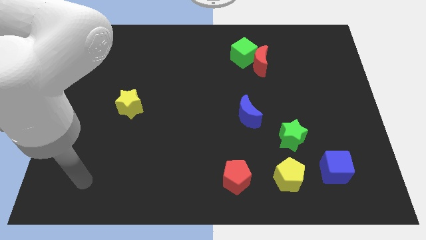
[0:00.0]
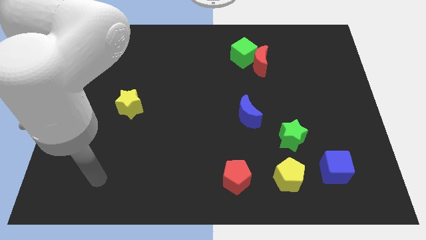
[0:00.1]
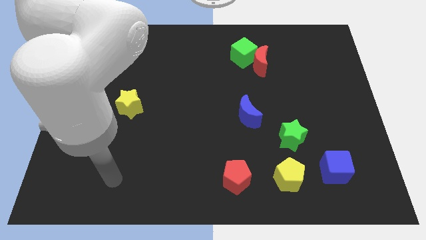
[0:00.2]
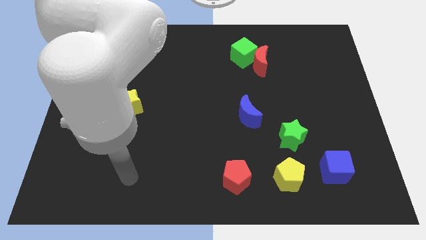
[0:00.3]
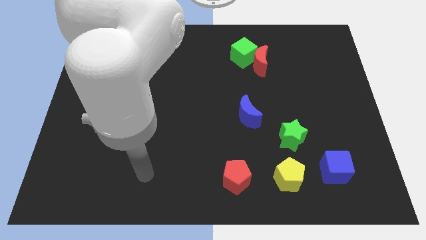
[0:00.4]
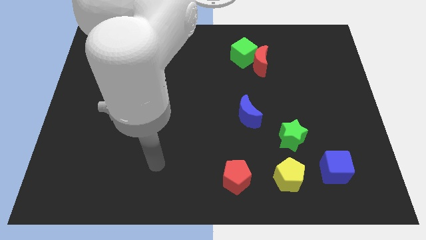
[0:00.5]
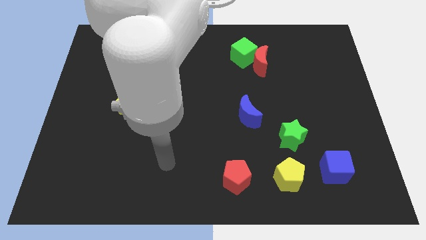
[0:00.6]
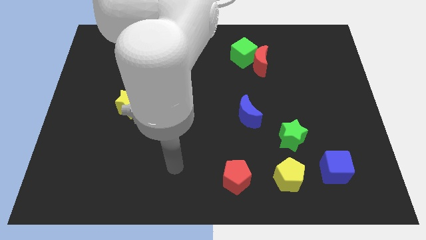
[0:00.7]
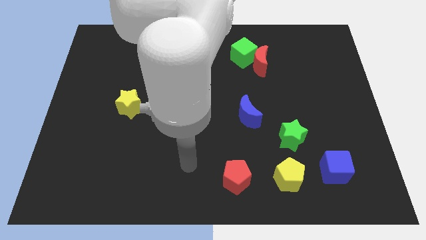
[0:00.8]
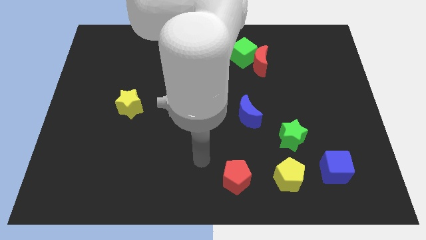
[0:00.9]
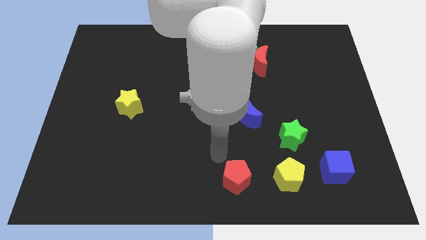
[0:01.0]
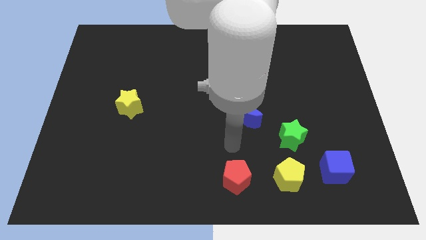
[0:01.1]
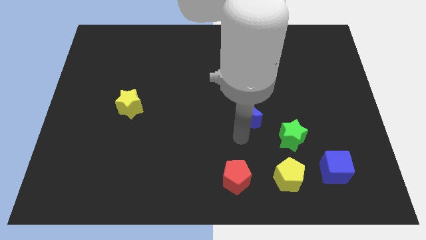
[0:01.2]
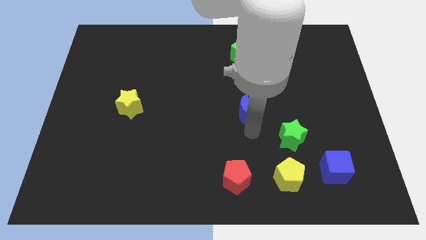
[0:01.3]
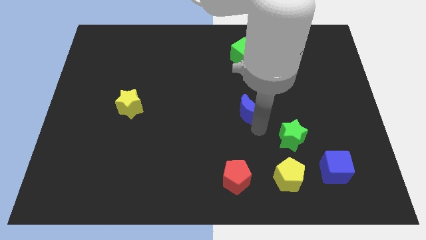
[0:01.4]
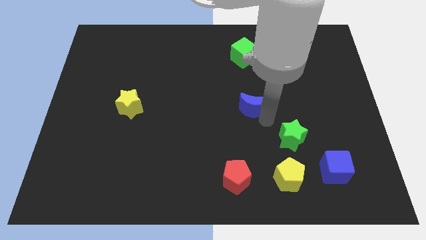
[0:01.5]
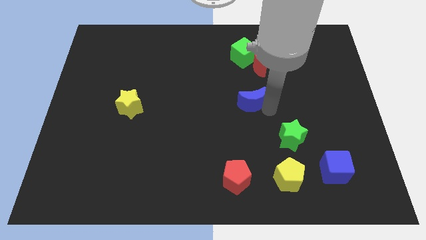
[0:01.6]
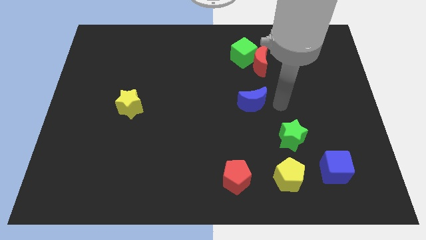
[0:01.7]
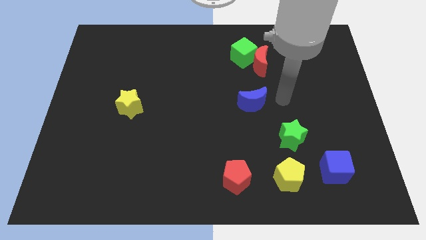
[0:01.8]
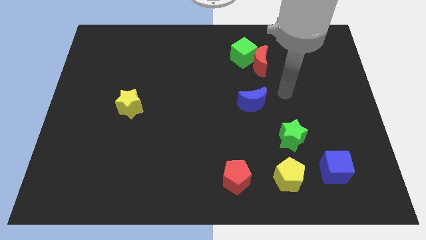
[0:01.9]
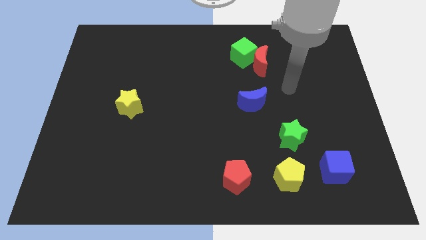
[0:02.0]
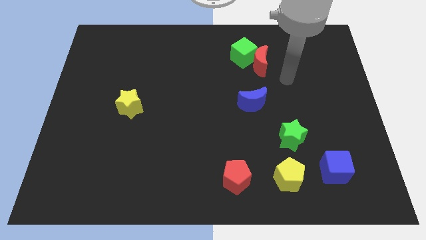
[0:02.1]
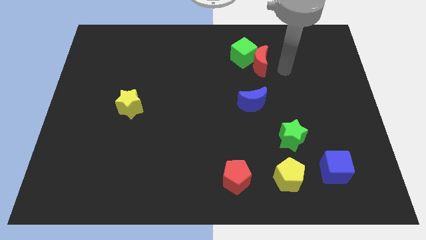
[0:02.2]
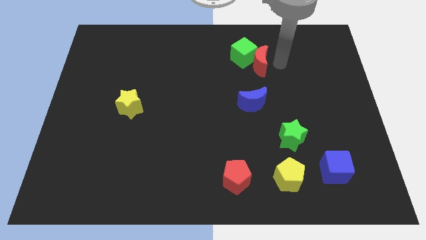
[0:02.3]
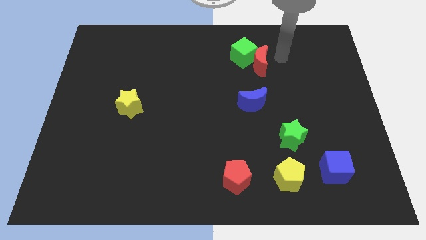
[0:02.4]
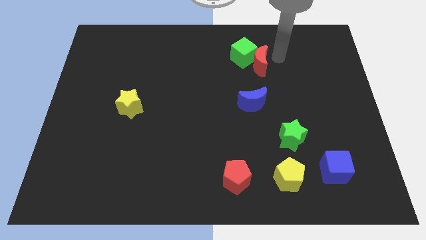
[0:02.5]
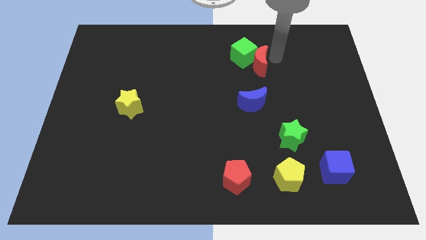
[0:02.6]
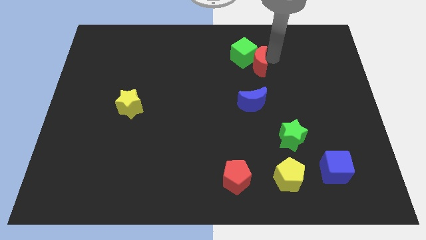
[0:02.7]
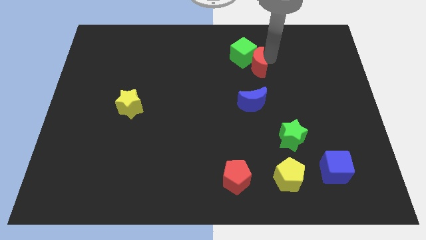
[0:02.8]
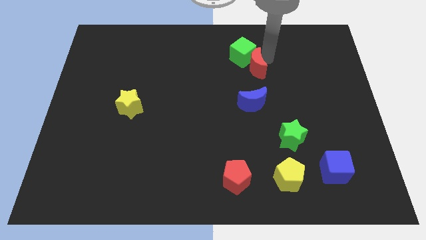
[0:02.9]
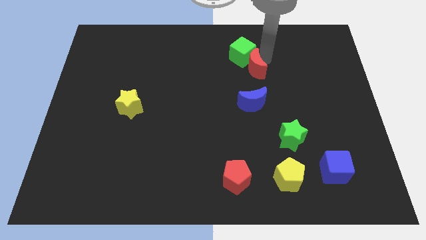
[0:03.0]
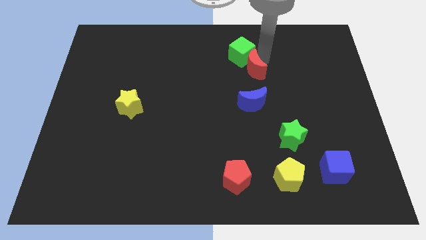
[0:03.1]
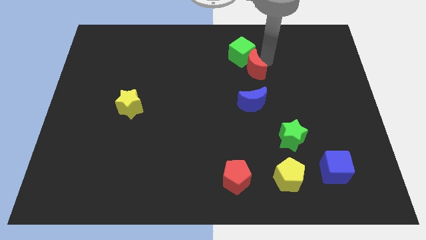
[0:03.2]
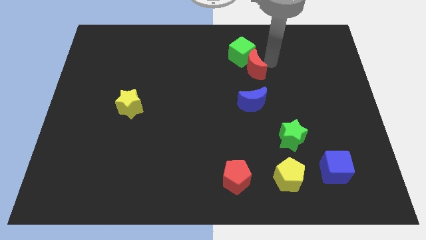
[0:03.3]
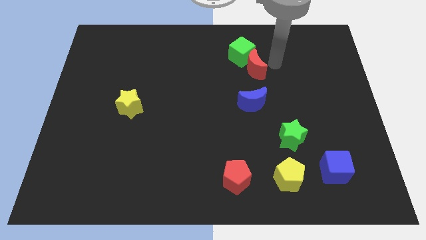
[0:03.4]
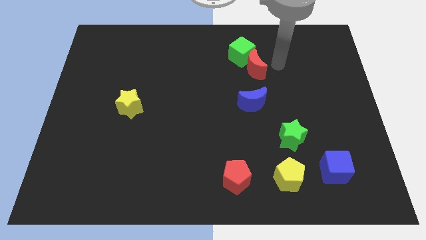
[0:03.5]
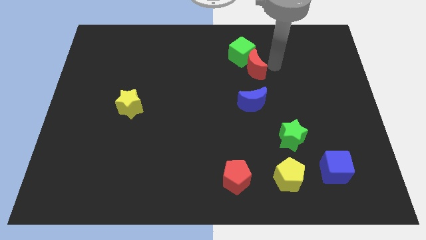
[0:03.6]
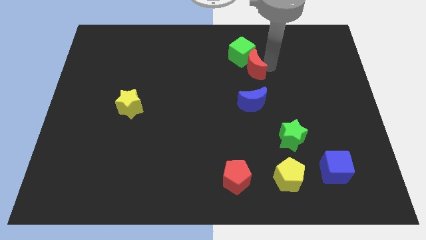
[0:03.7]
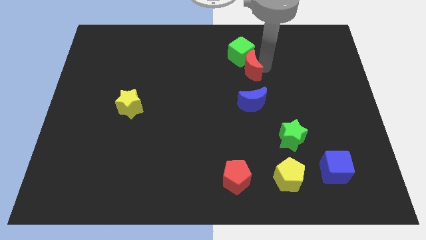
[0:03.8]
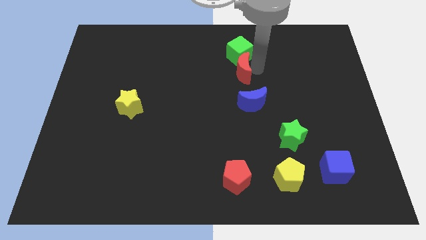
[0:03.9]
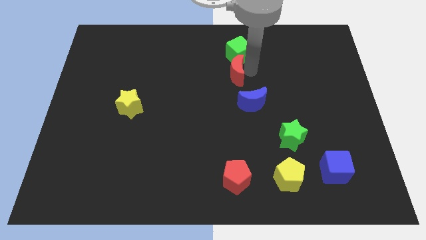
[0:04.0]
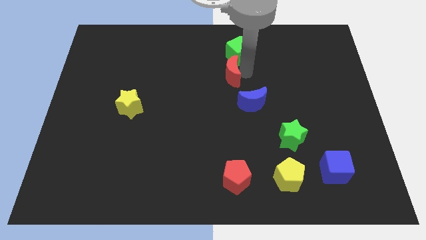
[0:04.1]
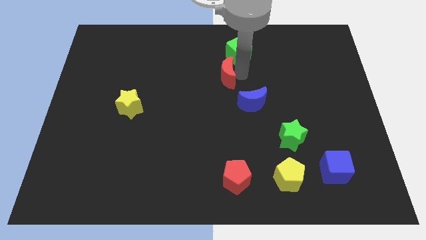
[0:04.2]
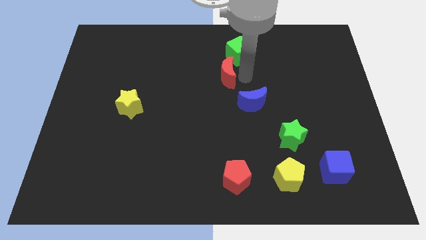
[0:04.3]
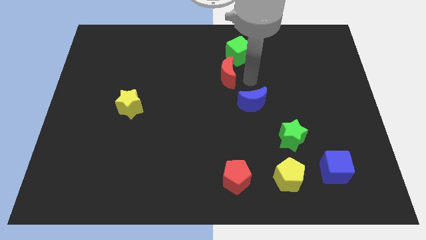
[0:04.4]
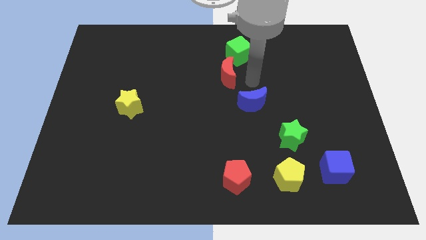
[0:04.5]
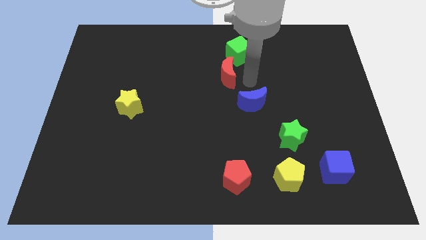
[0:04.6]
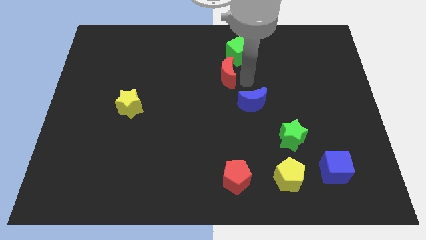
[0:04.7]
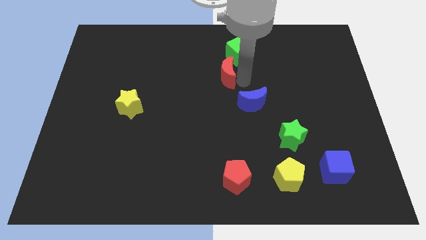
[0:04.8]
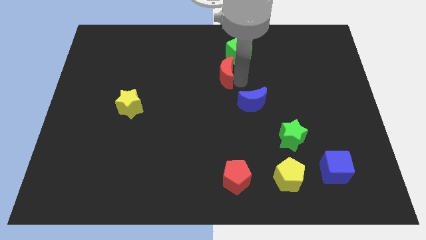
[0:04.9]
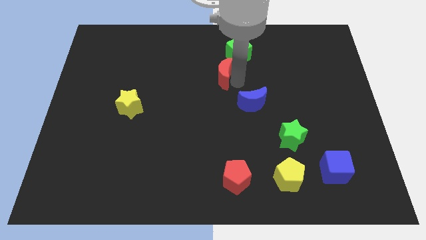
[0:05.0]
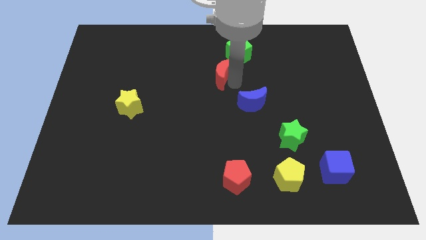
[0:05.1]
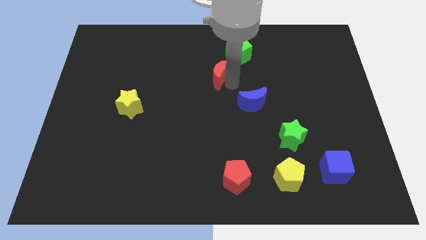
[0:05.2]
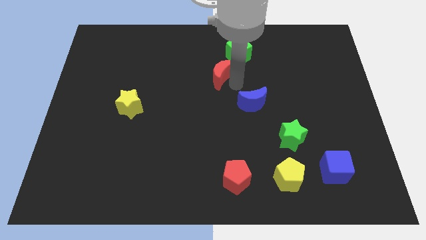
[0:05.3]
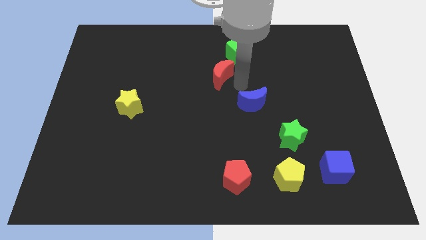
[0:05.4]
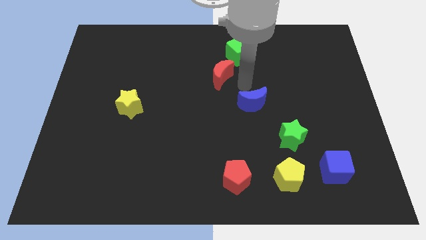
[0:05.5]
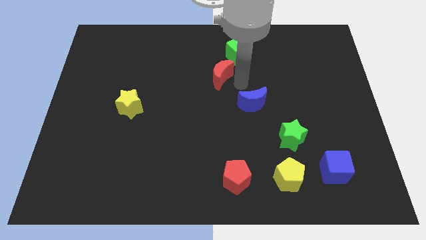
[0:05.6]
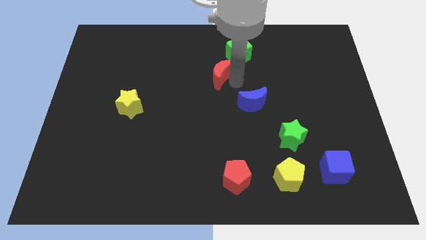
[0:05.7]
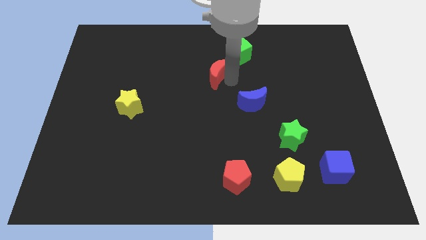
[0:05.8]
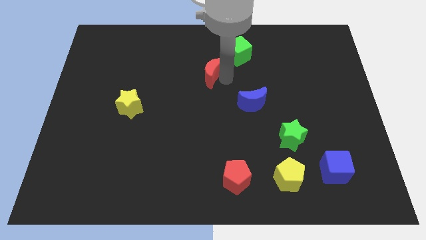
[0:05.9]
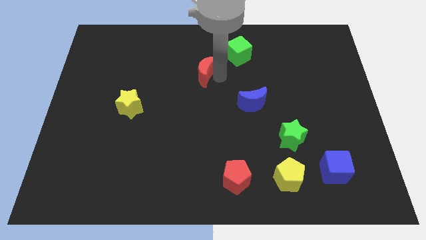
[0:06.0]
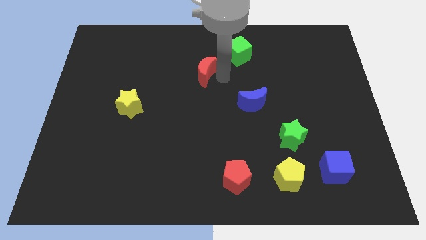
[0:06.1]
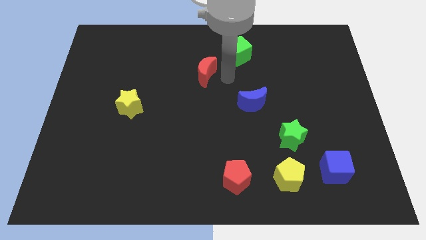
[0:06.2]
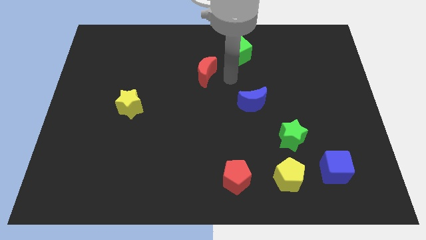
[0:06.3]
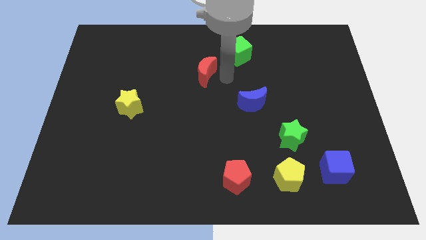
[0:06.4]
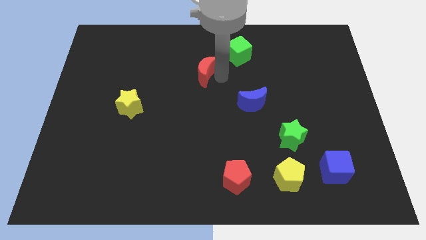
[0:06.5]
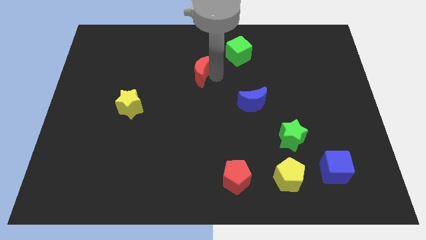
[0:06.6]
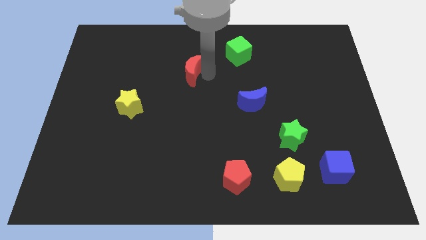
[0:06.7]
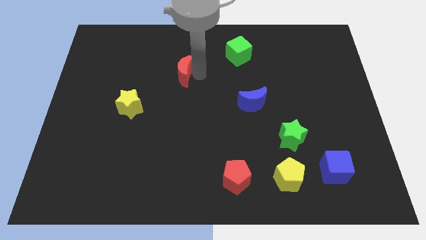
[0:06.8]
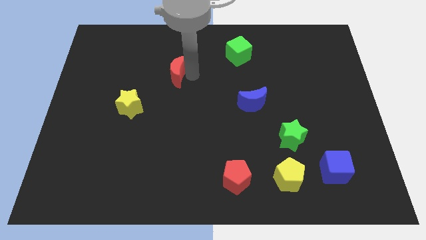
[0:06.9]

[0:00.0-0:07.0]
push the red moon left

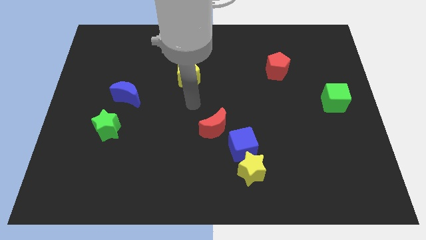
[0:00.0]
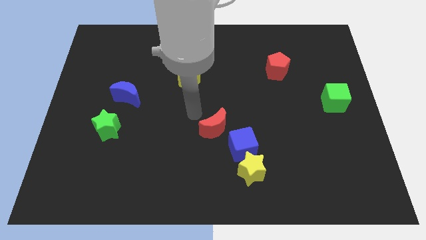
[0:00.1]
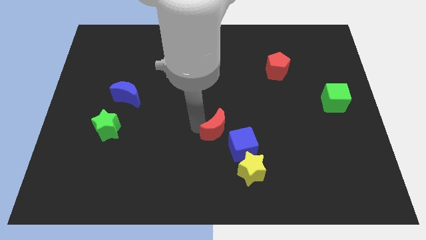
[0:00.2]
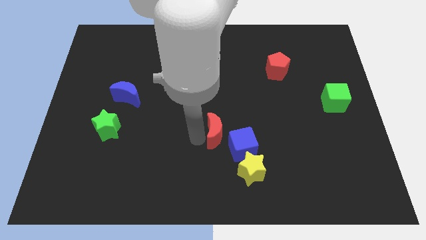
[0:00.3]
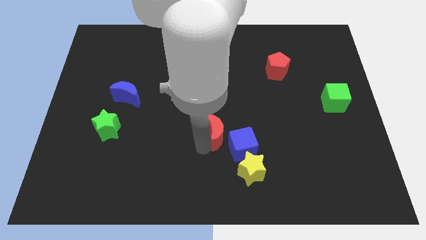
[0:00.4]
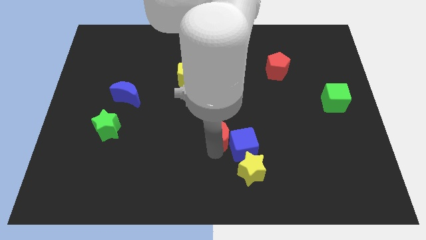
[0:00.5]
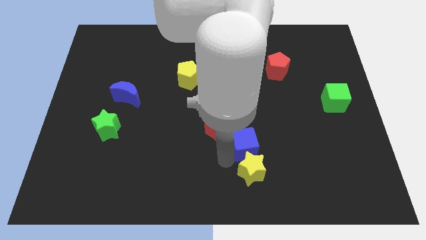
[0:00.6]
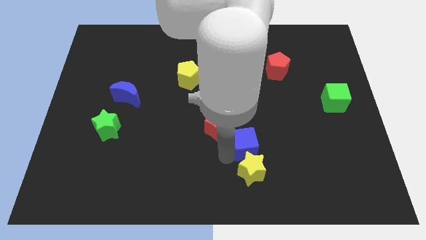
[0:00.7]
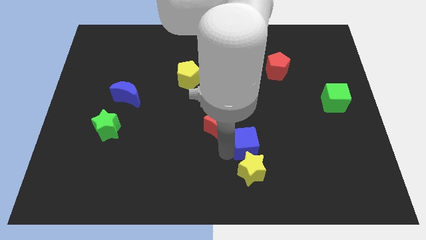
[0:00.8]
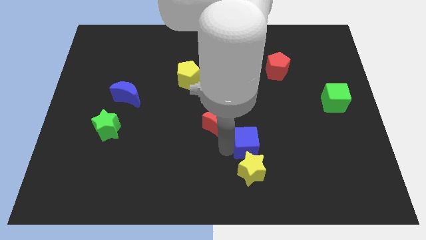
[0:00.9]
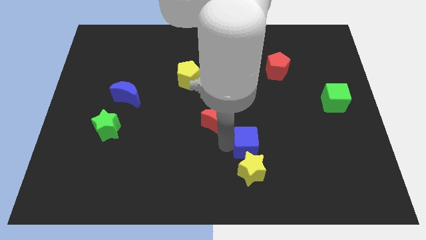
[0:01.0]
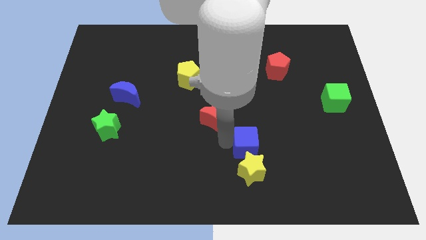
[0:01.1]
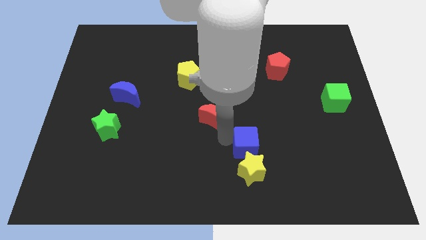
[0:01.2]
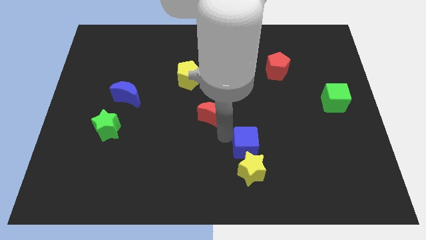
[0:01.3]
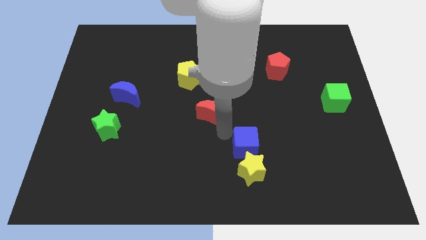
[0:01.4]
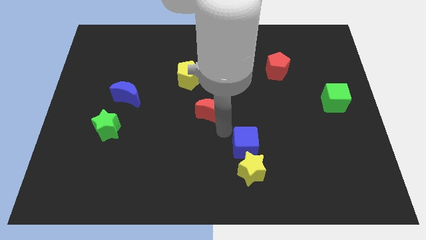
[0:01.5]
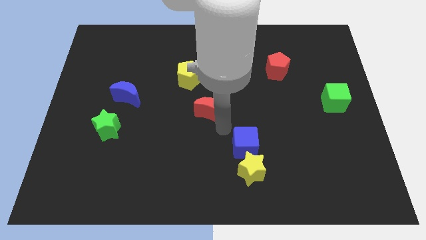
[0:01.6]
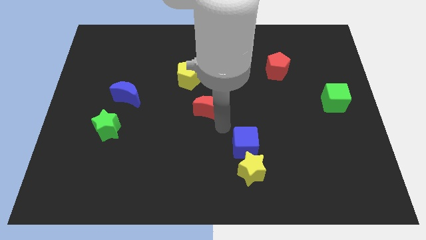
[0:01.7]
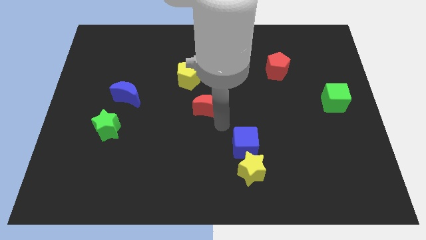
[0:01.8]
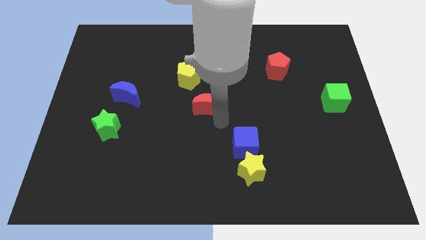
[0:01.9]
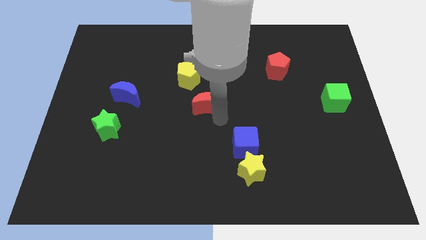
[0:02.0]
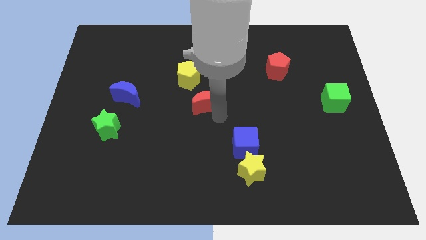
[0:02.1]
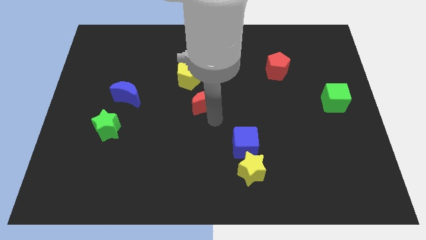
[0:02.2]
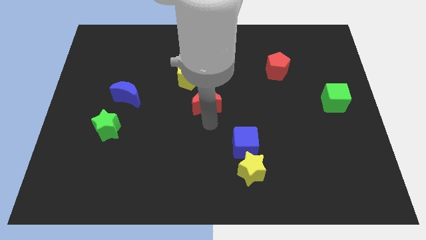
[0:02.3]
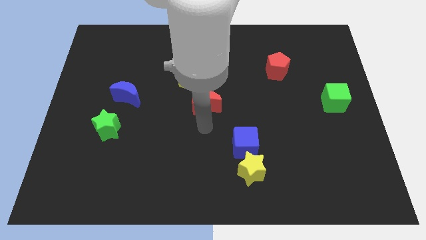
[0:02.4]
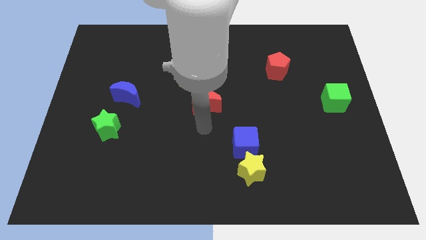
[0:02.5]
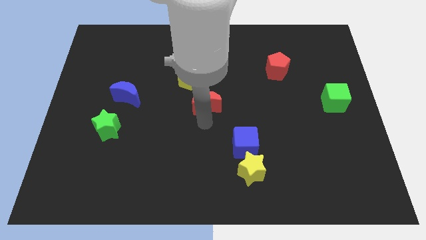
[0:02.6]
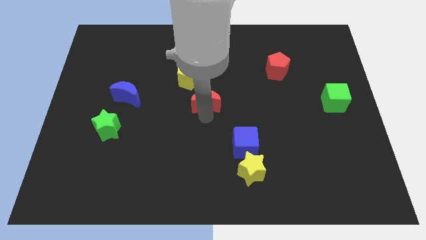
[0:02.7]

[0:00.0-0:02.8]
slide the red moon a little up
